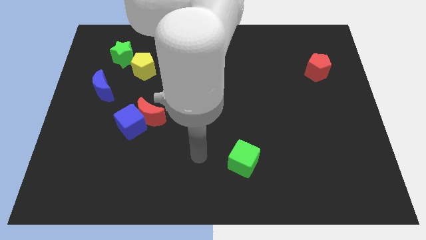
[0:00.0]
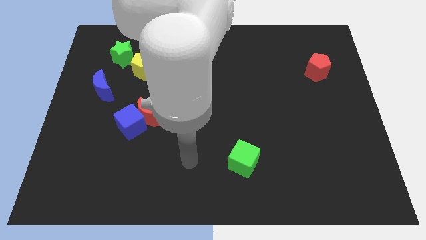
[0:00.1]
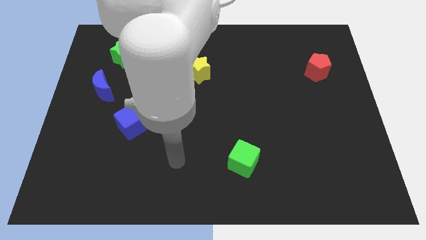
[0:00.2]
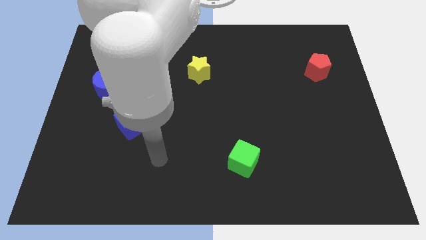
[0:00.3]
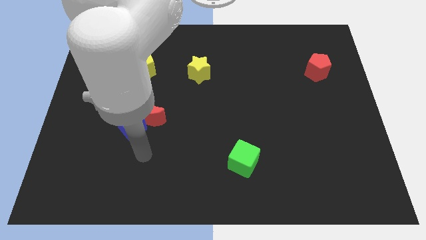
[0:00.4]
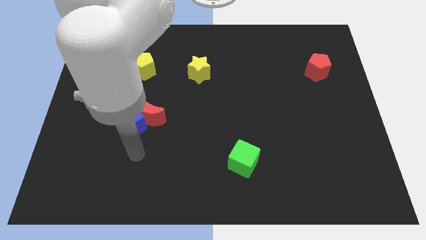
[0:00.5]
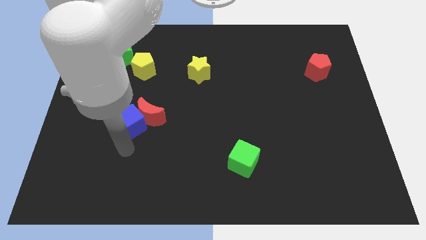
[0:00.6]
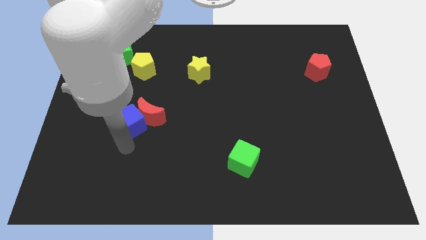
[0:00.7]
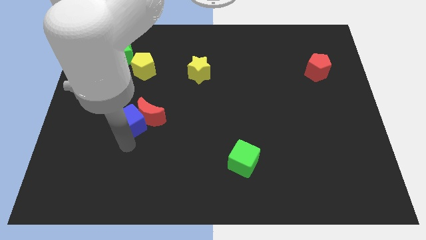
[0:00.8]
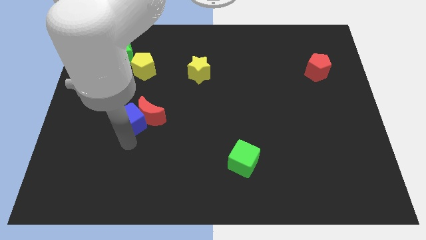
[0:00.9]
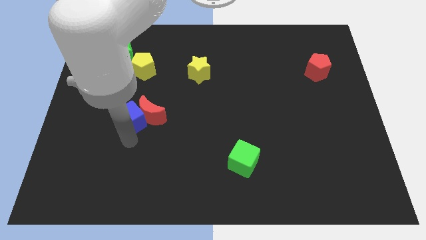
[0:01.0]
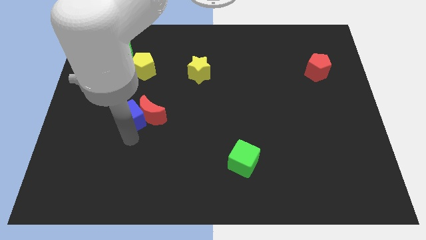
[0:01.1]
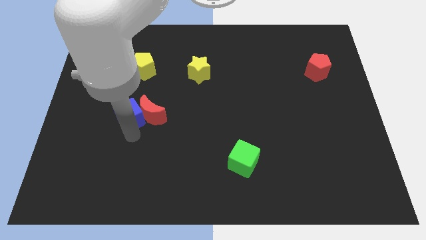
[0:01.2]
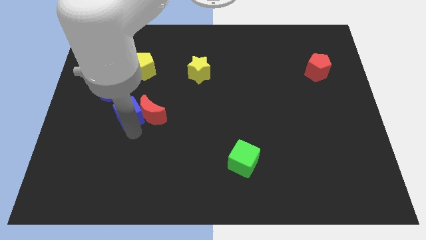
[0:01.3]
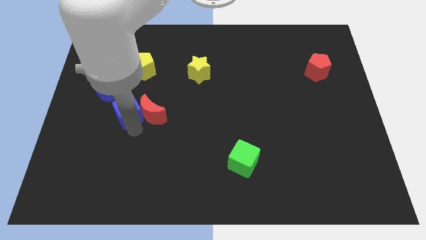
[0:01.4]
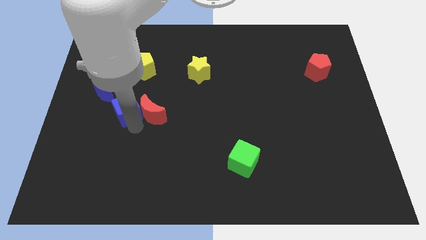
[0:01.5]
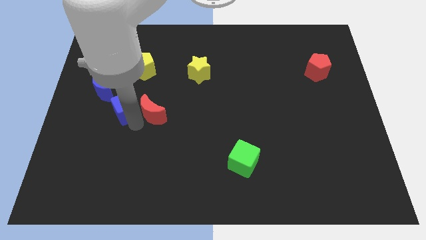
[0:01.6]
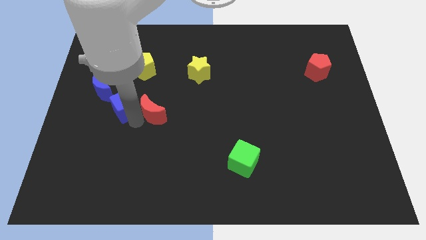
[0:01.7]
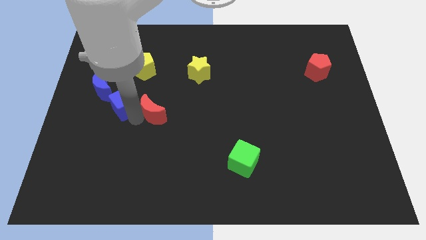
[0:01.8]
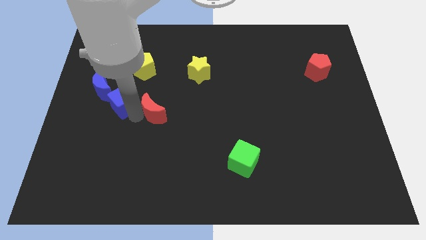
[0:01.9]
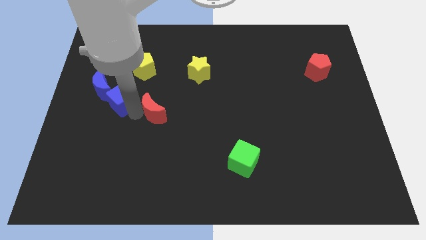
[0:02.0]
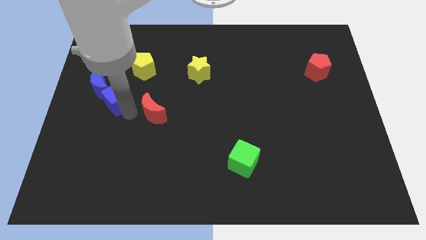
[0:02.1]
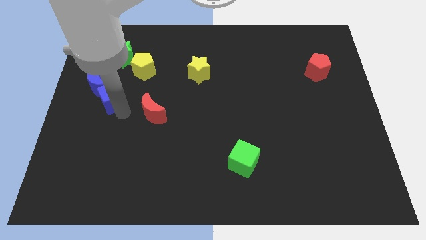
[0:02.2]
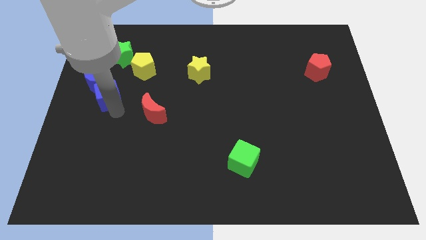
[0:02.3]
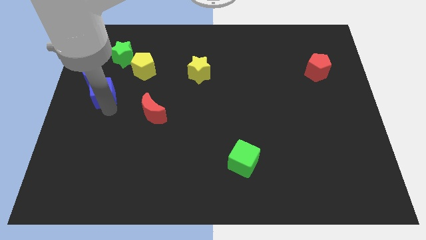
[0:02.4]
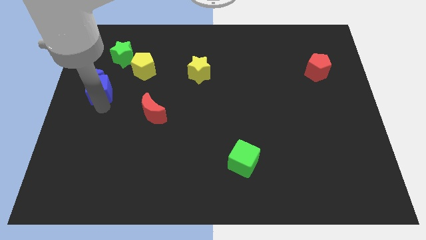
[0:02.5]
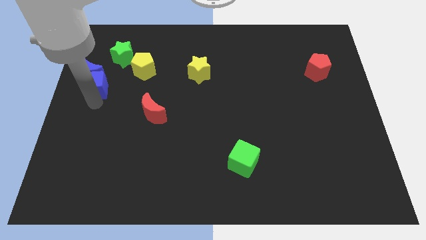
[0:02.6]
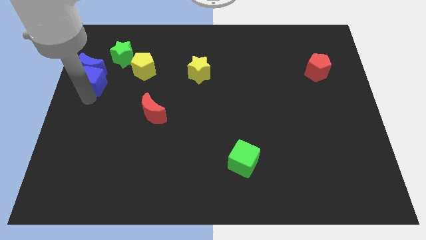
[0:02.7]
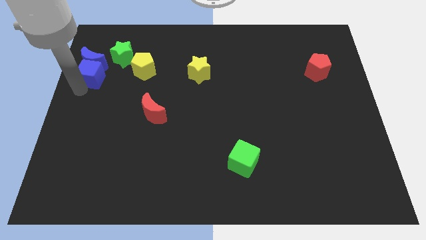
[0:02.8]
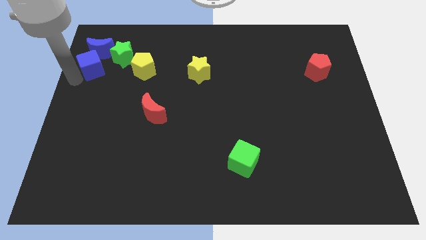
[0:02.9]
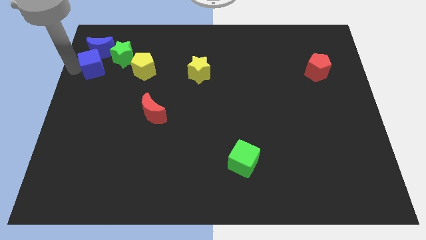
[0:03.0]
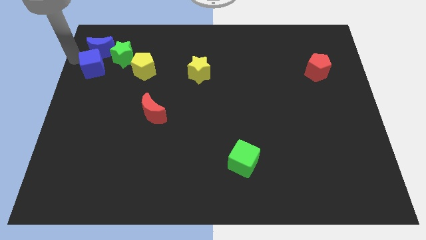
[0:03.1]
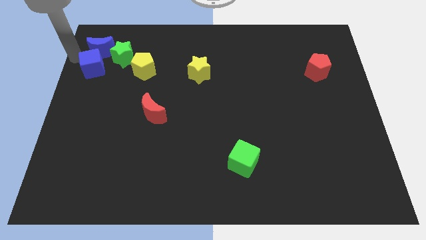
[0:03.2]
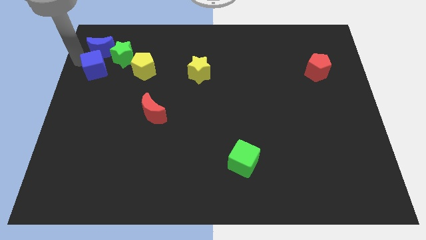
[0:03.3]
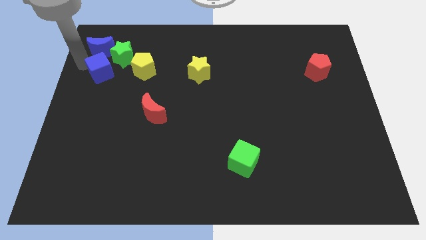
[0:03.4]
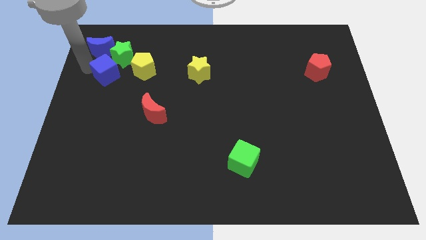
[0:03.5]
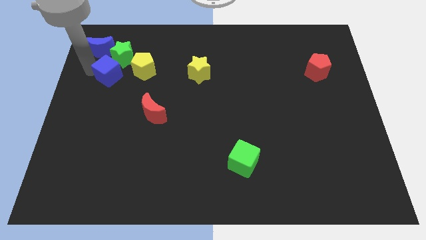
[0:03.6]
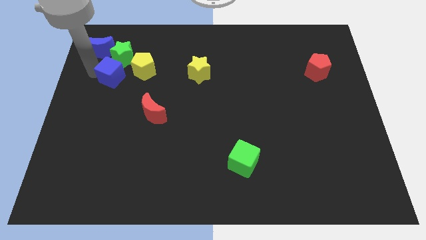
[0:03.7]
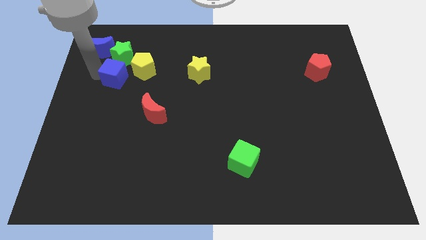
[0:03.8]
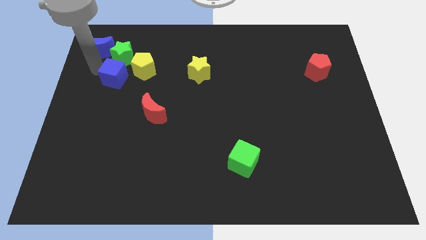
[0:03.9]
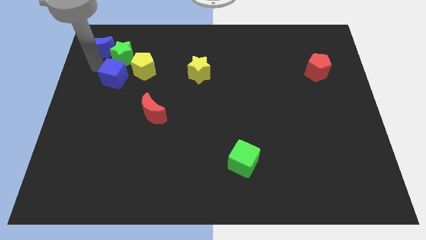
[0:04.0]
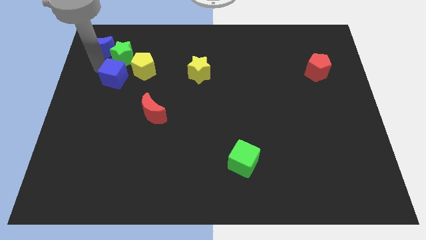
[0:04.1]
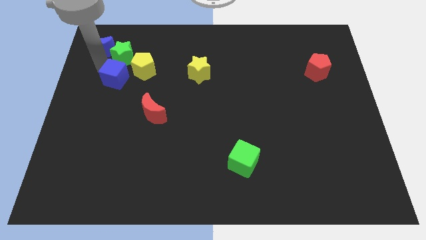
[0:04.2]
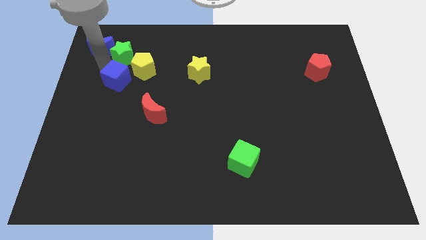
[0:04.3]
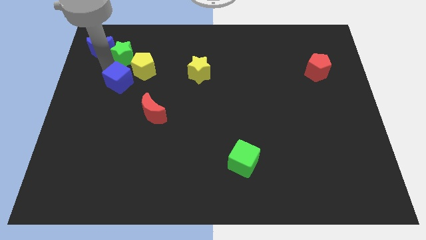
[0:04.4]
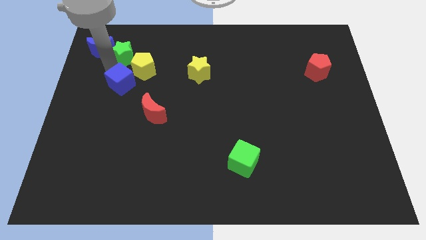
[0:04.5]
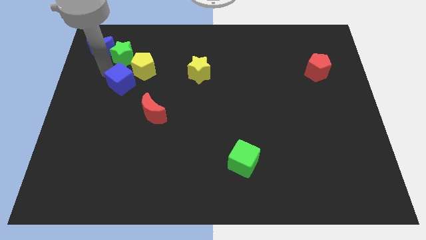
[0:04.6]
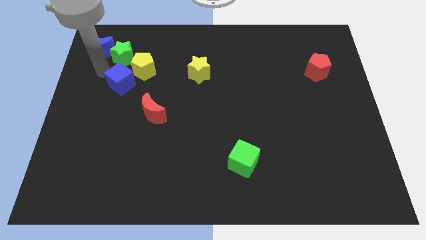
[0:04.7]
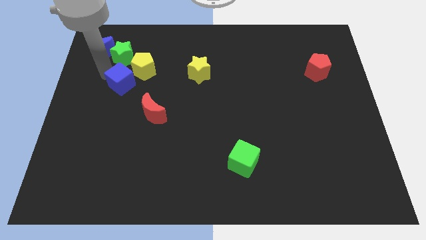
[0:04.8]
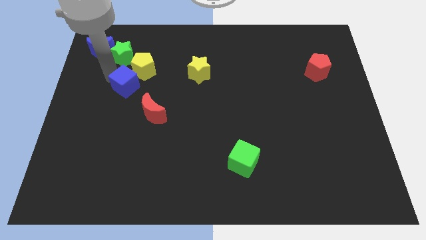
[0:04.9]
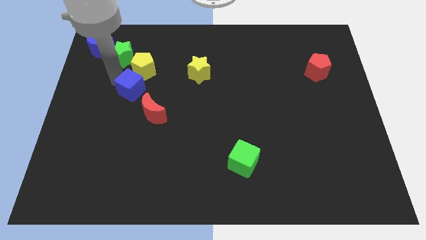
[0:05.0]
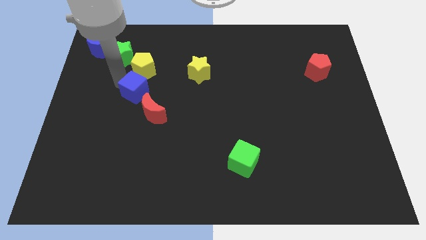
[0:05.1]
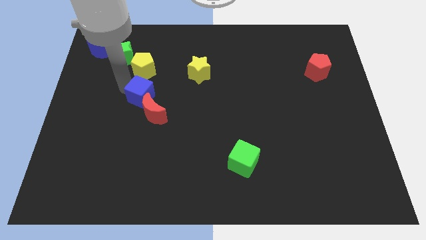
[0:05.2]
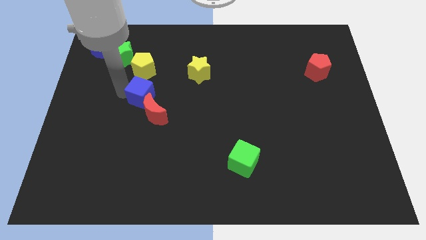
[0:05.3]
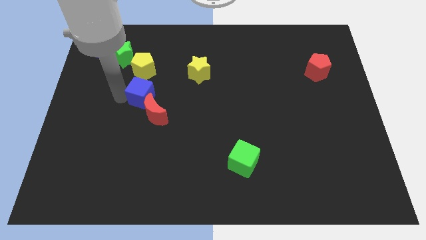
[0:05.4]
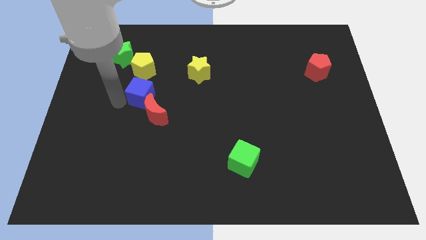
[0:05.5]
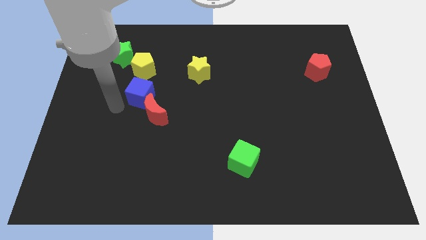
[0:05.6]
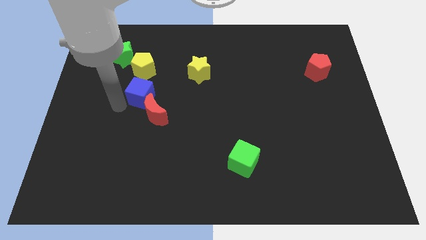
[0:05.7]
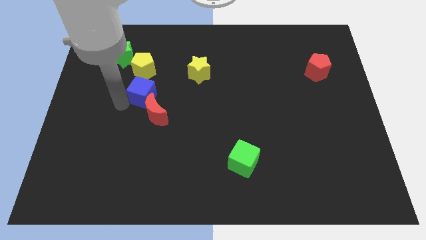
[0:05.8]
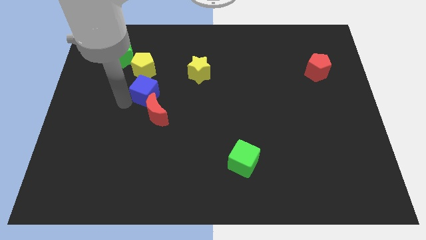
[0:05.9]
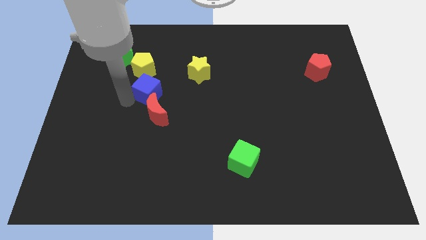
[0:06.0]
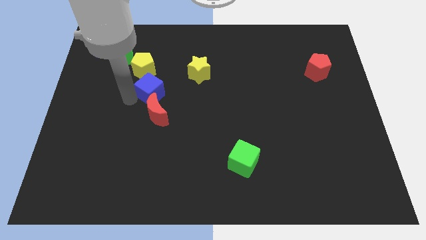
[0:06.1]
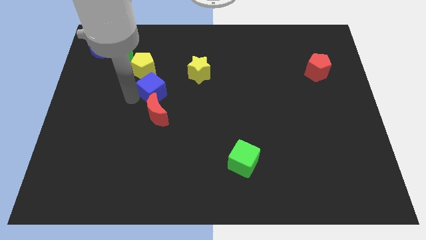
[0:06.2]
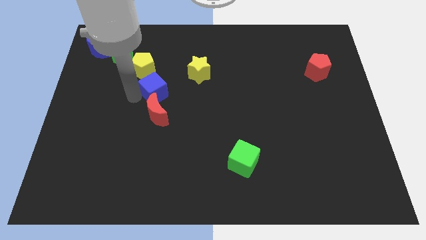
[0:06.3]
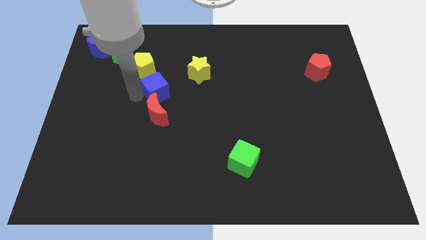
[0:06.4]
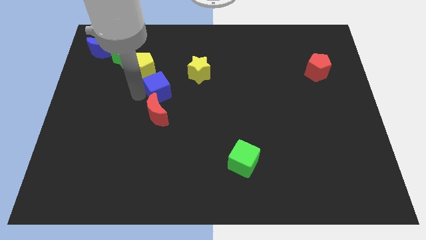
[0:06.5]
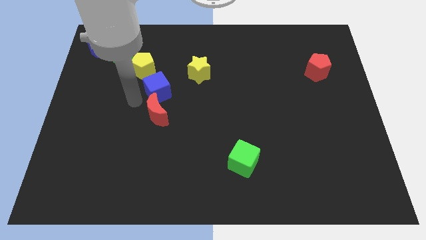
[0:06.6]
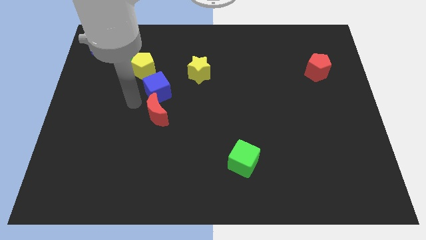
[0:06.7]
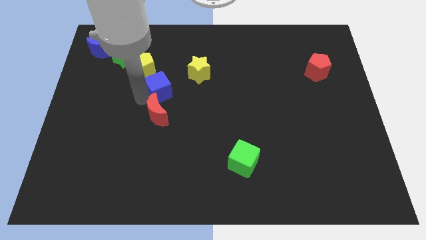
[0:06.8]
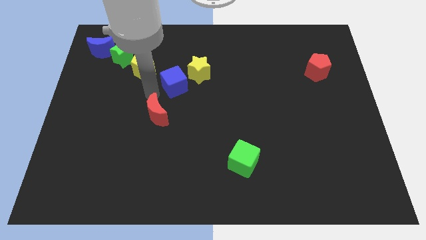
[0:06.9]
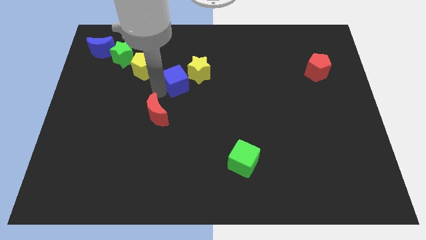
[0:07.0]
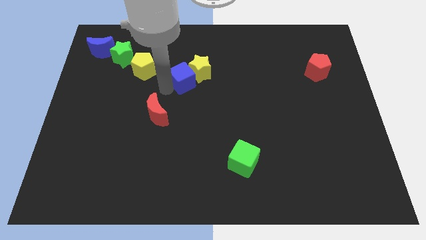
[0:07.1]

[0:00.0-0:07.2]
move the blue cube next to the yellow star
